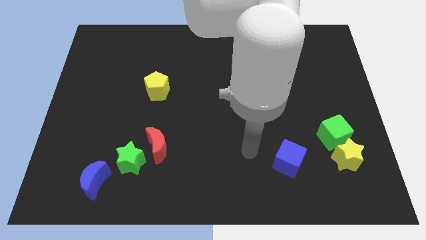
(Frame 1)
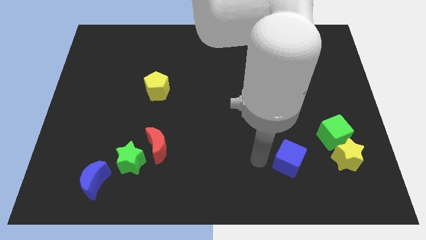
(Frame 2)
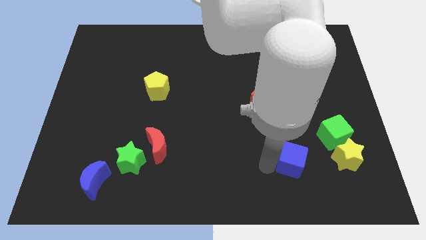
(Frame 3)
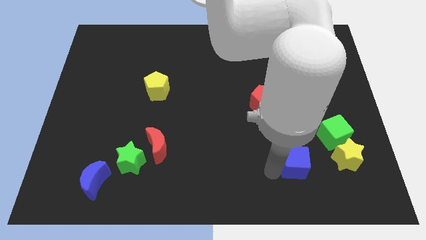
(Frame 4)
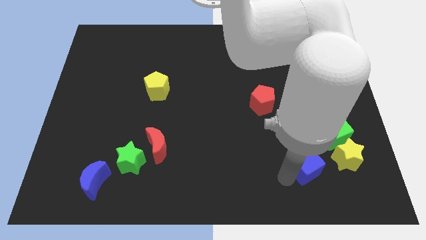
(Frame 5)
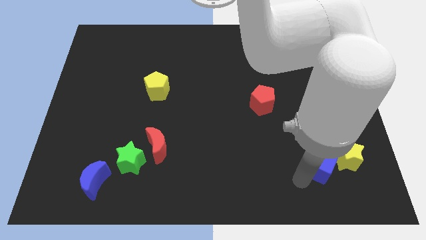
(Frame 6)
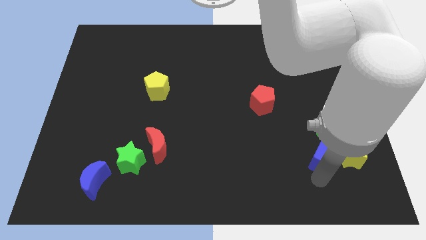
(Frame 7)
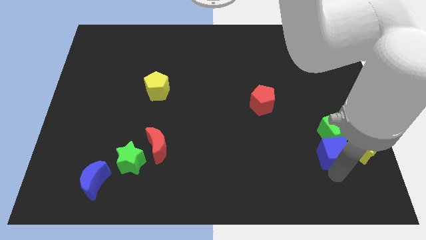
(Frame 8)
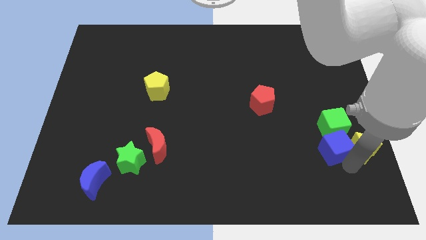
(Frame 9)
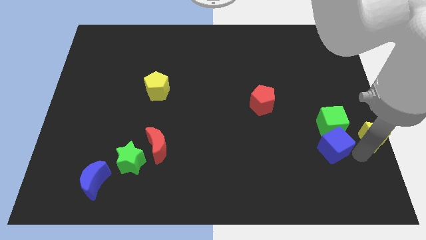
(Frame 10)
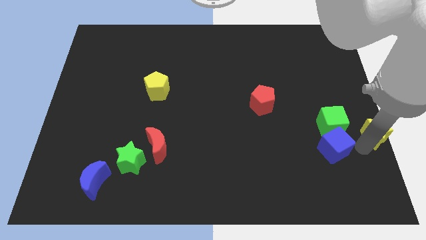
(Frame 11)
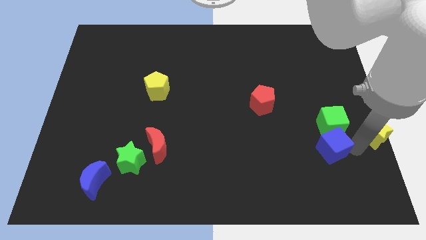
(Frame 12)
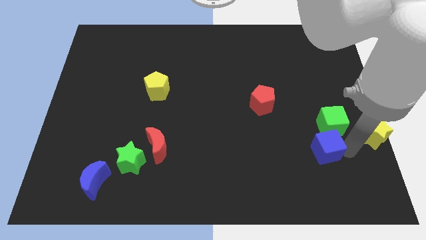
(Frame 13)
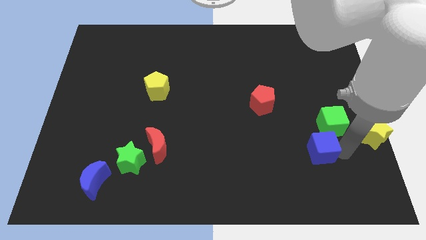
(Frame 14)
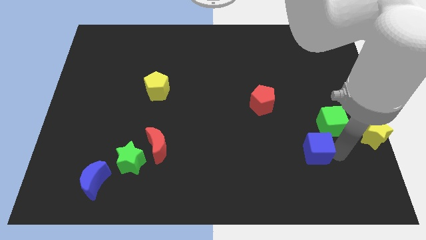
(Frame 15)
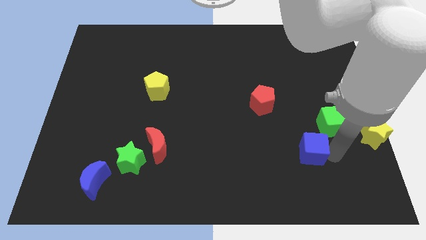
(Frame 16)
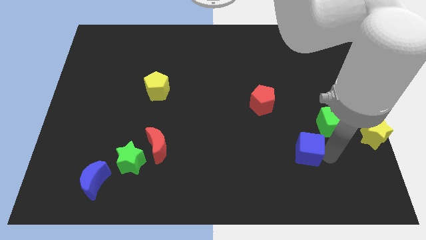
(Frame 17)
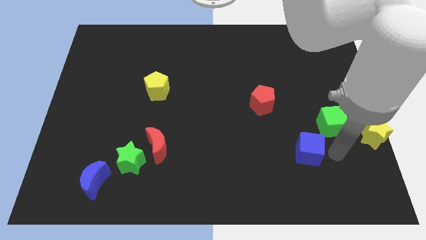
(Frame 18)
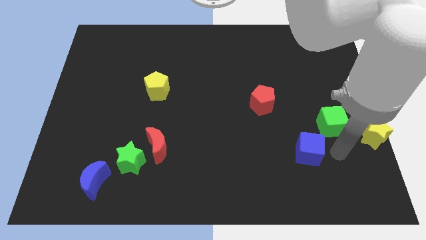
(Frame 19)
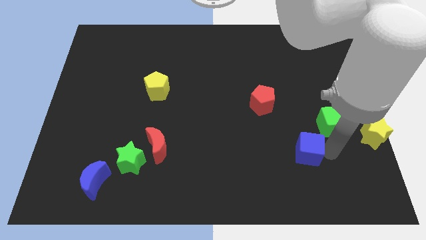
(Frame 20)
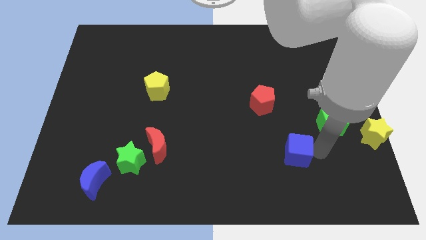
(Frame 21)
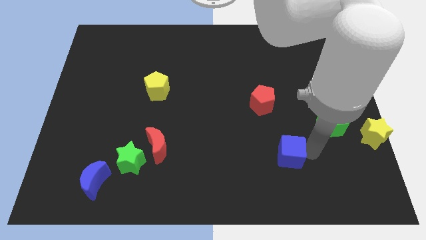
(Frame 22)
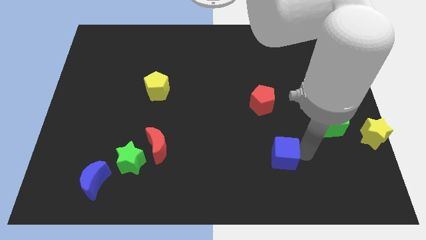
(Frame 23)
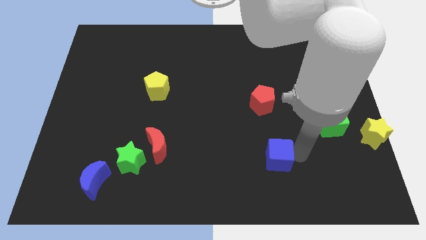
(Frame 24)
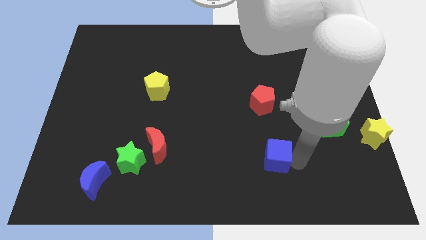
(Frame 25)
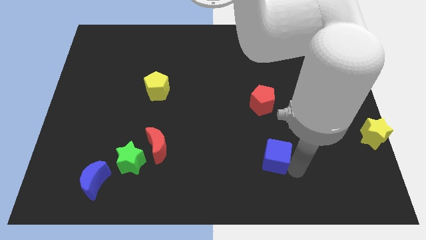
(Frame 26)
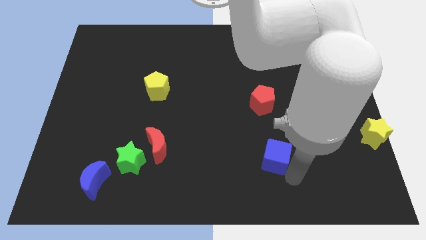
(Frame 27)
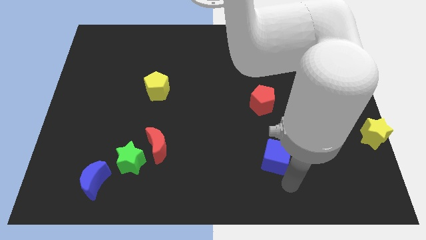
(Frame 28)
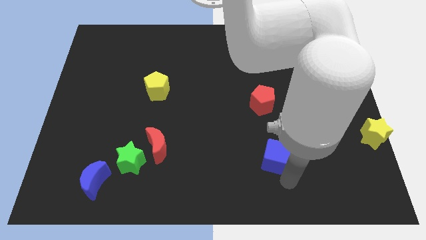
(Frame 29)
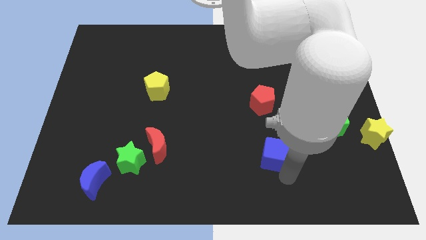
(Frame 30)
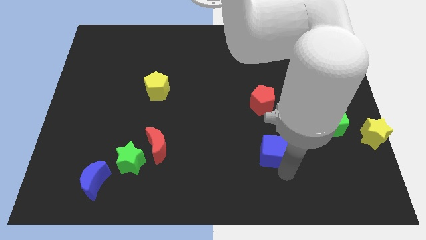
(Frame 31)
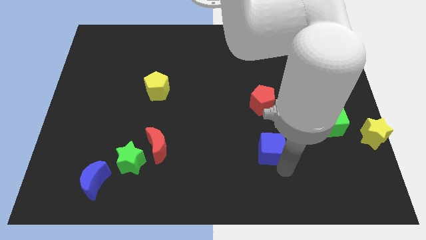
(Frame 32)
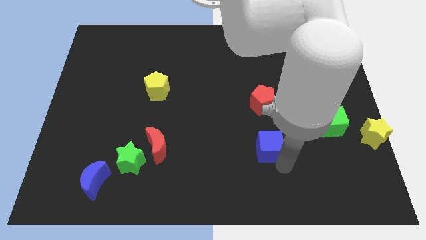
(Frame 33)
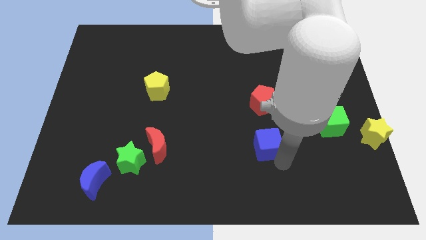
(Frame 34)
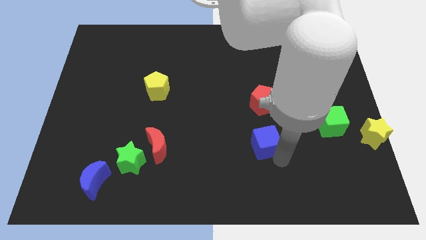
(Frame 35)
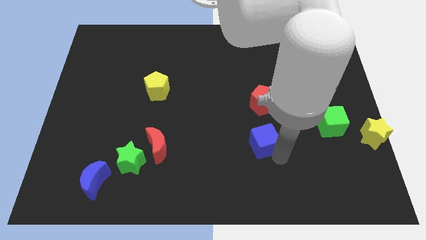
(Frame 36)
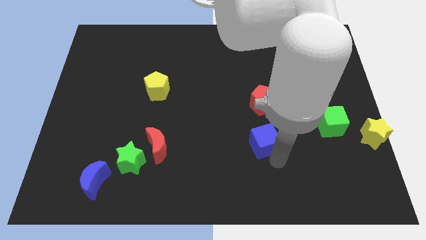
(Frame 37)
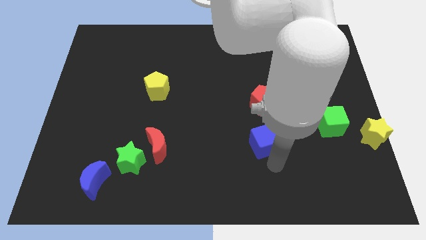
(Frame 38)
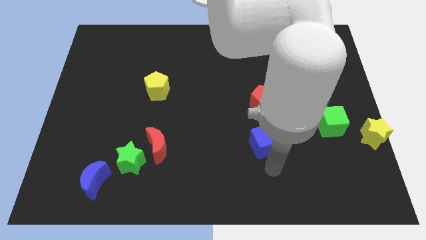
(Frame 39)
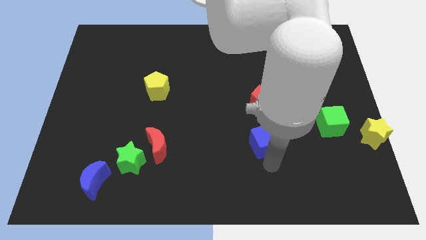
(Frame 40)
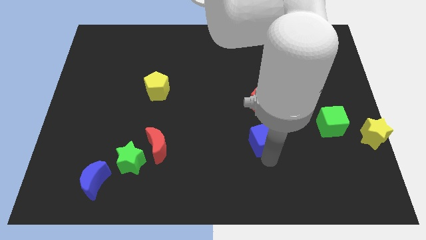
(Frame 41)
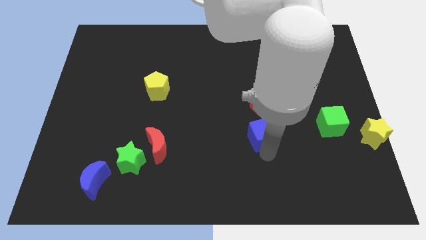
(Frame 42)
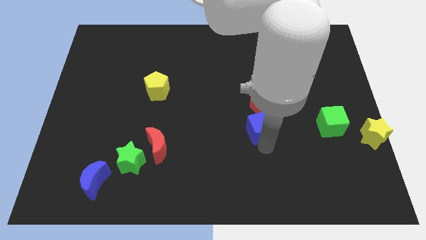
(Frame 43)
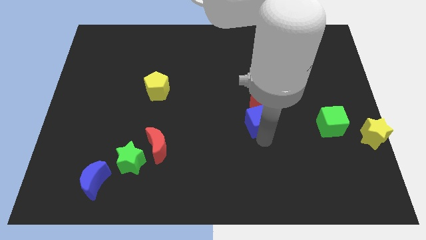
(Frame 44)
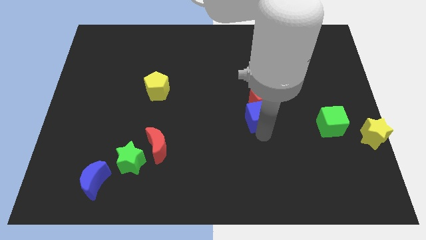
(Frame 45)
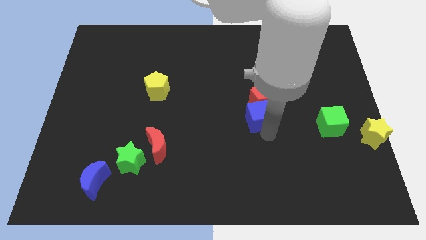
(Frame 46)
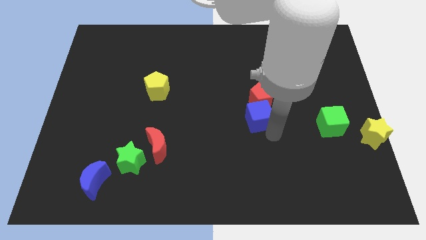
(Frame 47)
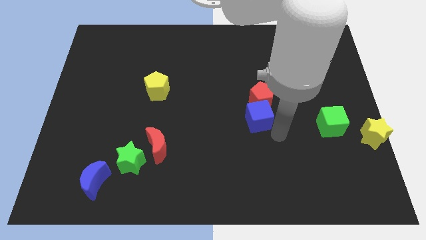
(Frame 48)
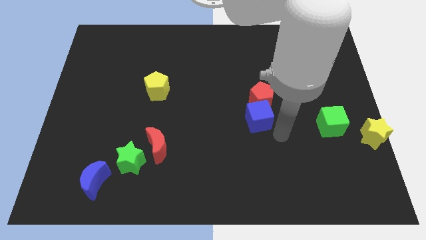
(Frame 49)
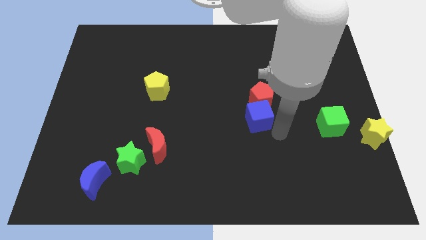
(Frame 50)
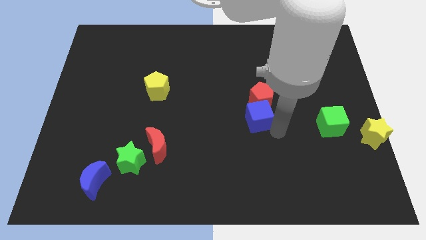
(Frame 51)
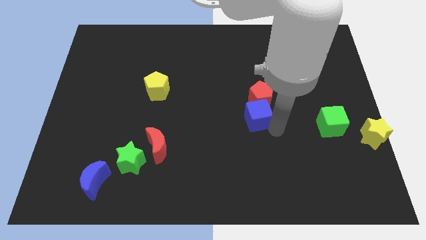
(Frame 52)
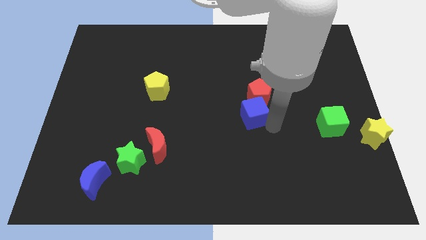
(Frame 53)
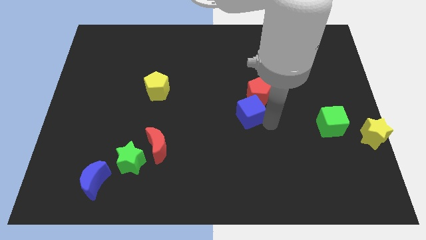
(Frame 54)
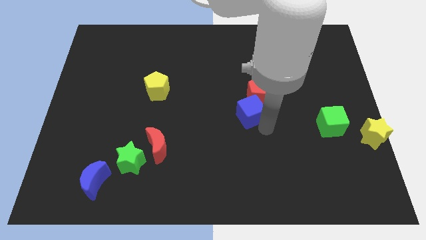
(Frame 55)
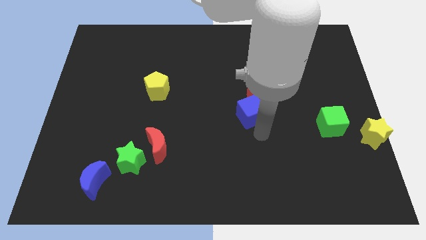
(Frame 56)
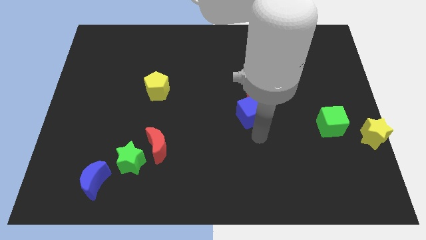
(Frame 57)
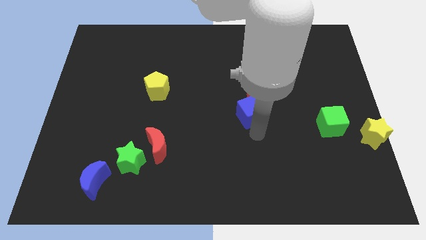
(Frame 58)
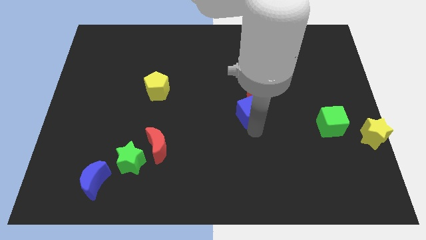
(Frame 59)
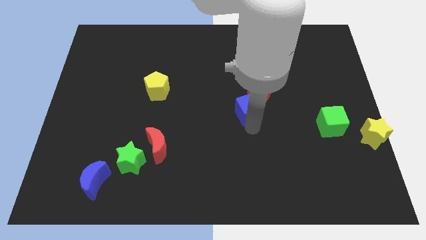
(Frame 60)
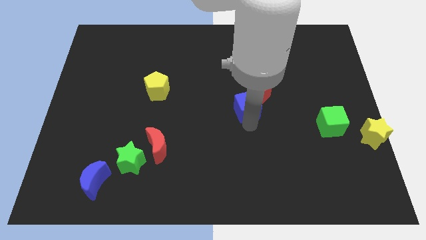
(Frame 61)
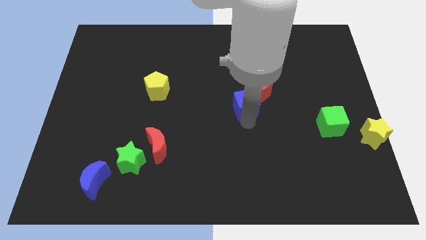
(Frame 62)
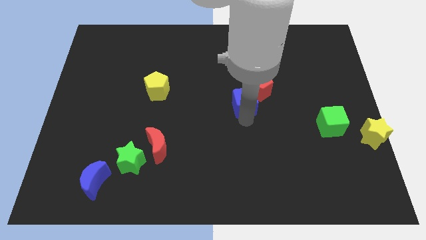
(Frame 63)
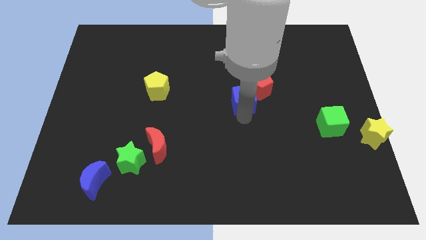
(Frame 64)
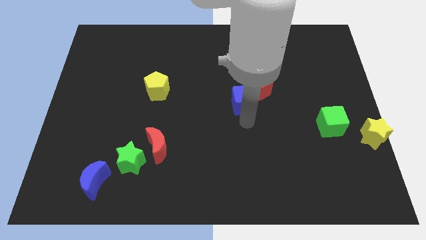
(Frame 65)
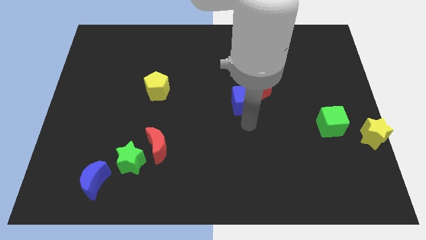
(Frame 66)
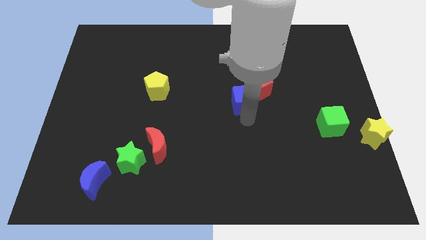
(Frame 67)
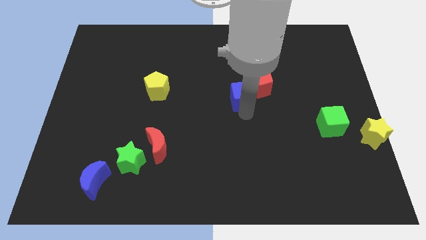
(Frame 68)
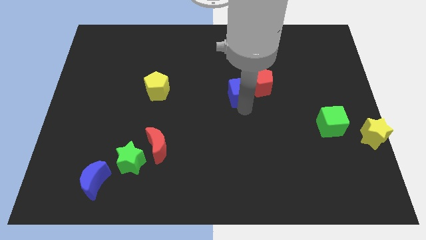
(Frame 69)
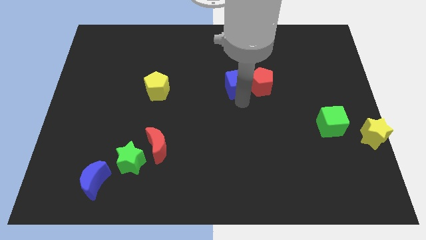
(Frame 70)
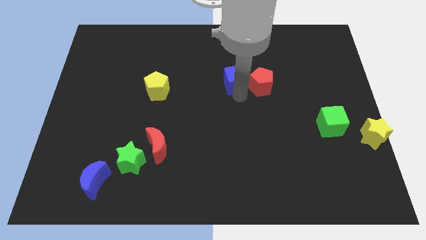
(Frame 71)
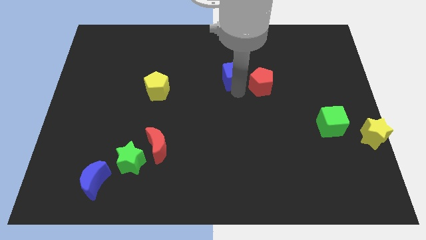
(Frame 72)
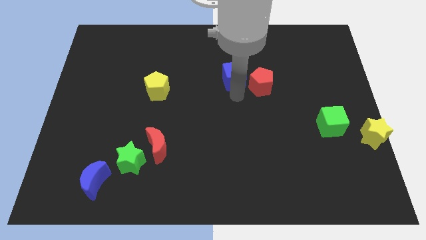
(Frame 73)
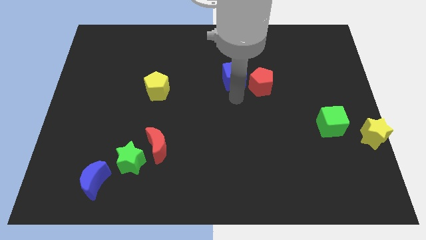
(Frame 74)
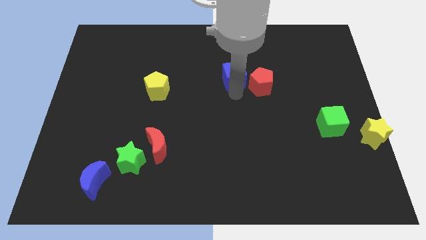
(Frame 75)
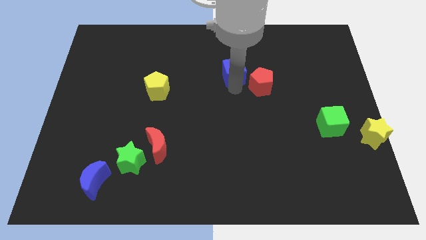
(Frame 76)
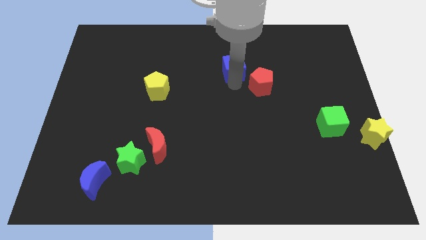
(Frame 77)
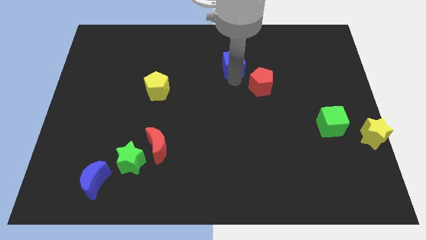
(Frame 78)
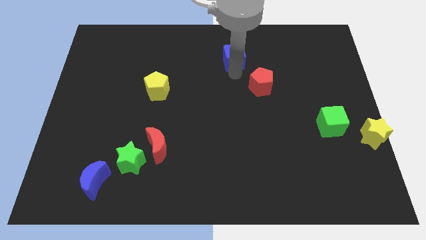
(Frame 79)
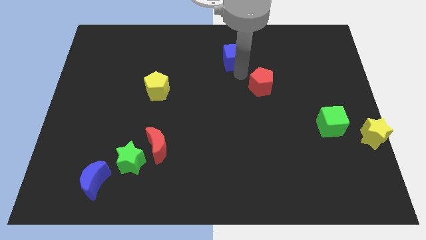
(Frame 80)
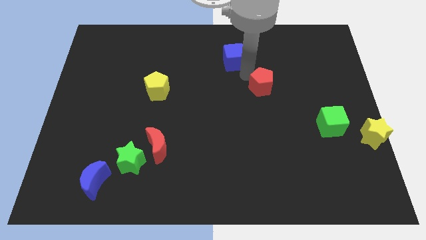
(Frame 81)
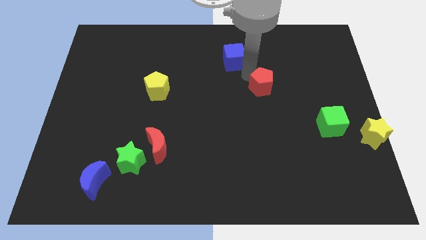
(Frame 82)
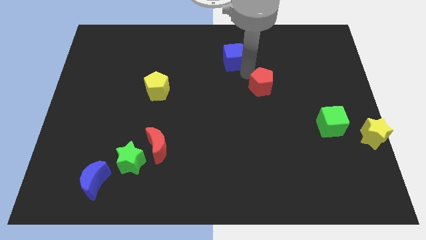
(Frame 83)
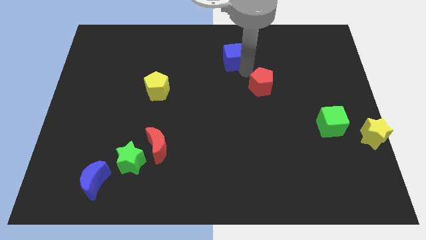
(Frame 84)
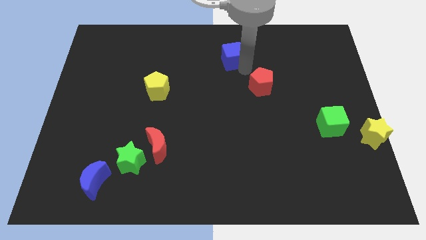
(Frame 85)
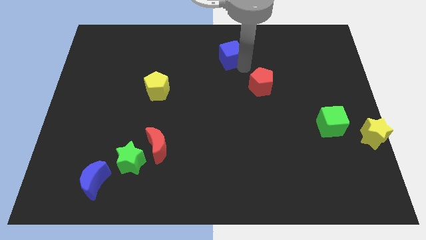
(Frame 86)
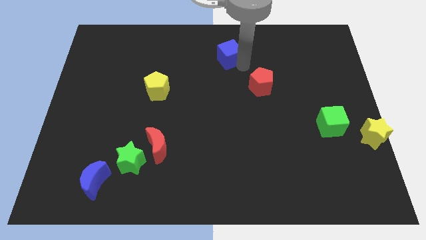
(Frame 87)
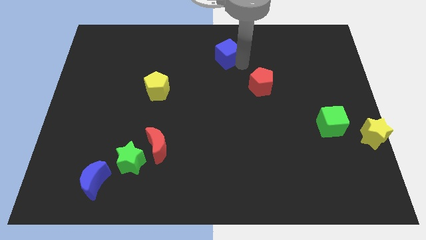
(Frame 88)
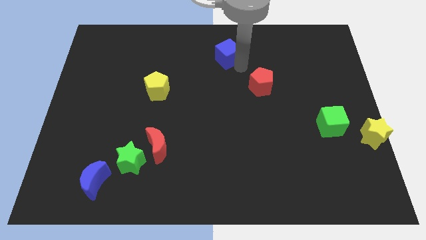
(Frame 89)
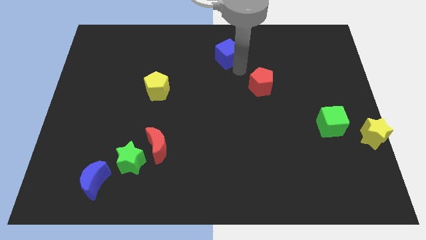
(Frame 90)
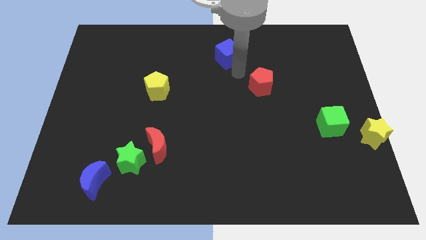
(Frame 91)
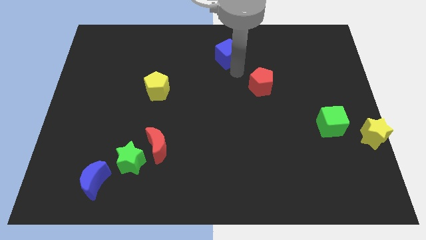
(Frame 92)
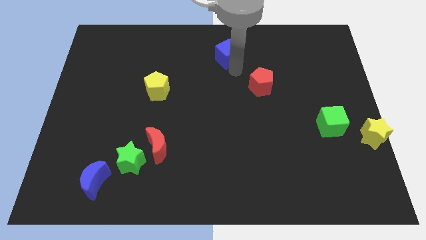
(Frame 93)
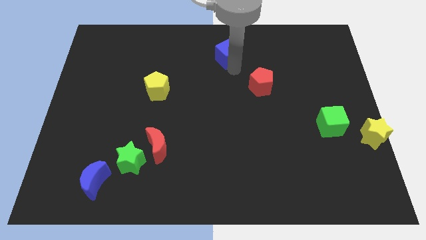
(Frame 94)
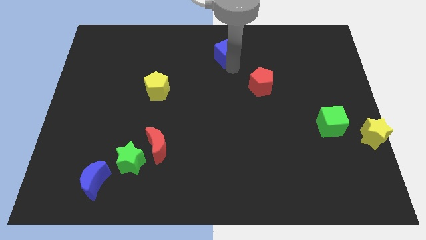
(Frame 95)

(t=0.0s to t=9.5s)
put the blue cube to the top side
